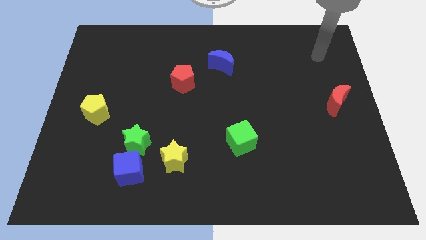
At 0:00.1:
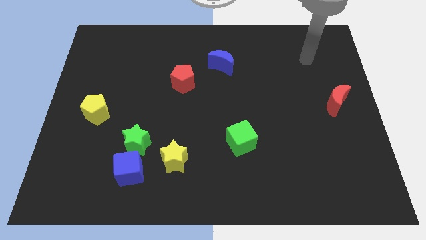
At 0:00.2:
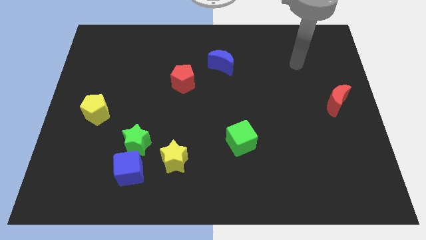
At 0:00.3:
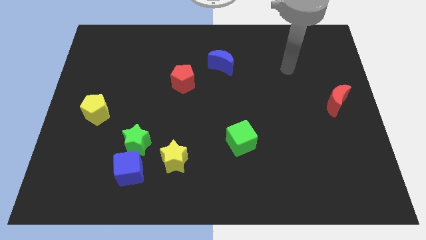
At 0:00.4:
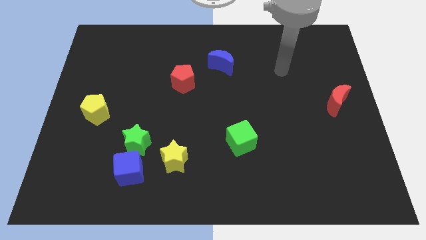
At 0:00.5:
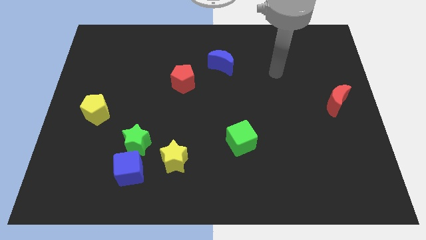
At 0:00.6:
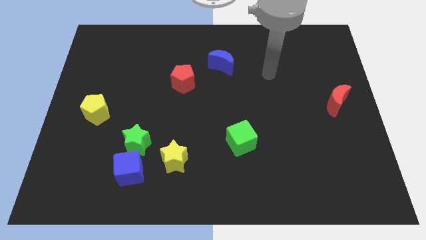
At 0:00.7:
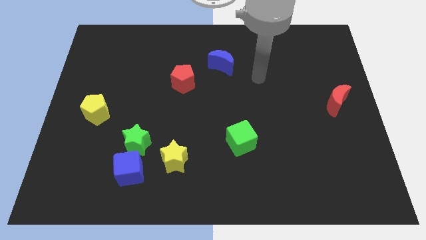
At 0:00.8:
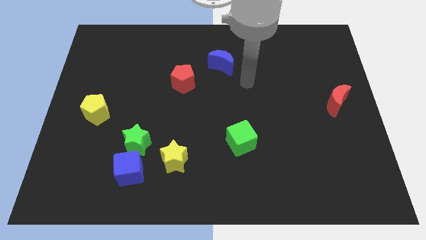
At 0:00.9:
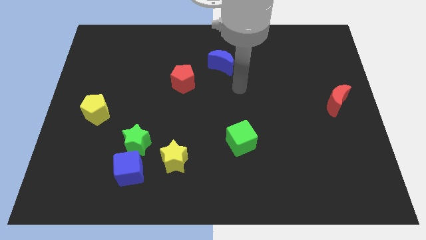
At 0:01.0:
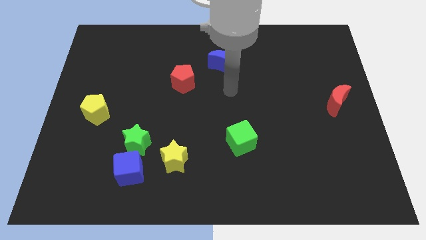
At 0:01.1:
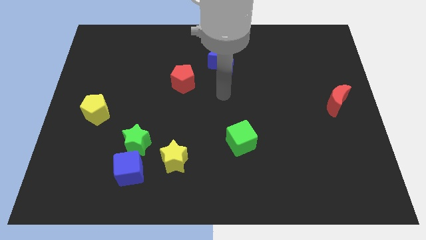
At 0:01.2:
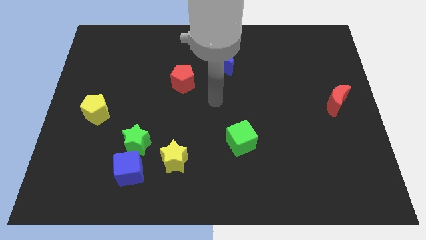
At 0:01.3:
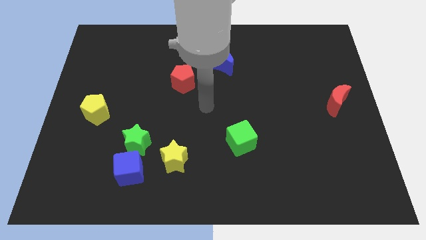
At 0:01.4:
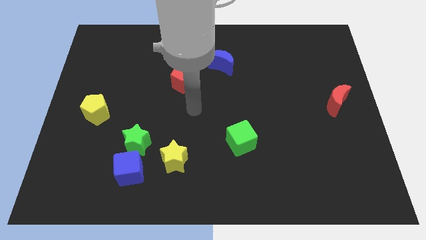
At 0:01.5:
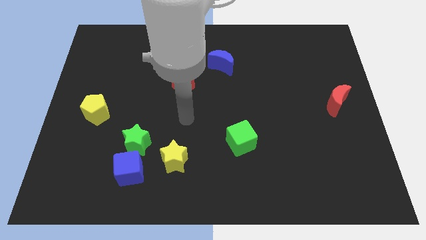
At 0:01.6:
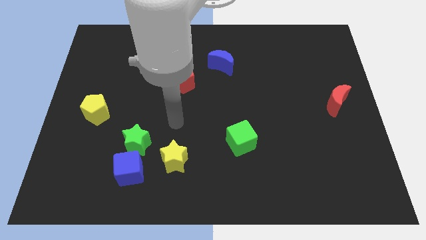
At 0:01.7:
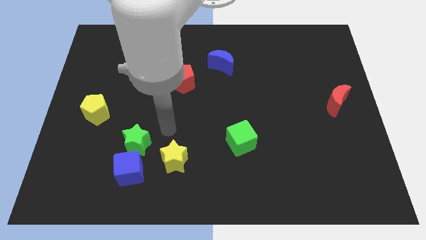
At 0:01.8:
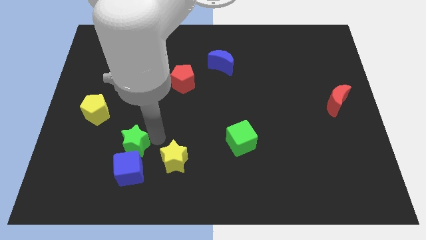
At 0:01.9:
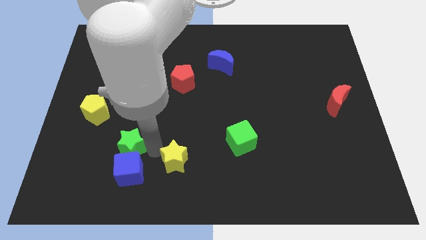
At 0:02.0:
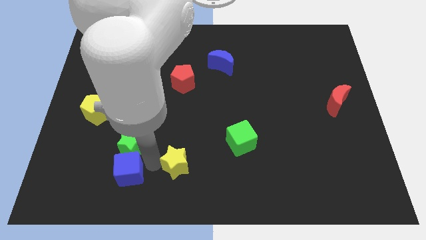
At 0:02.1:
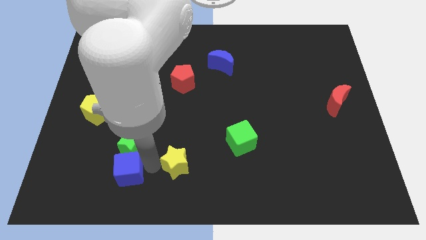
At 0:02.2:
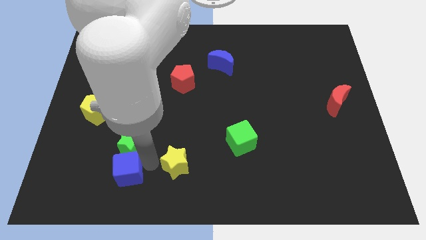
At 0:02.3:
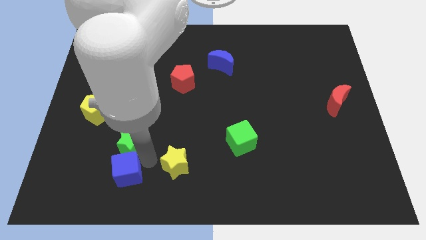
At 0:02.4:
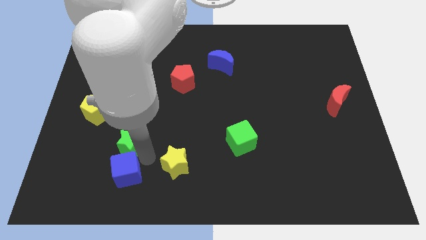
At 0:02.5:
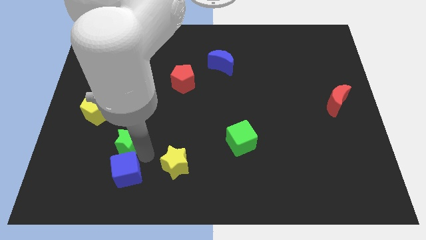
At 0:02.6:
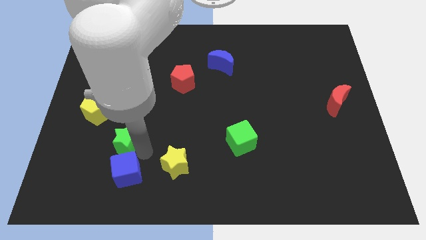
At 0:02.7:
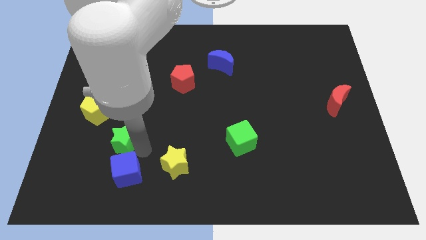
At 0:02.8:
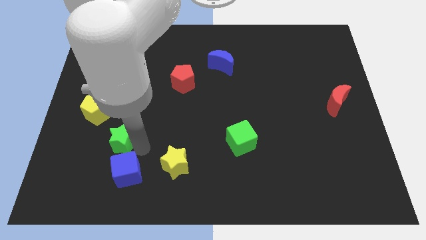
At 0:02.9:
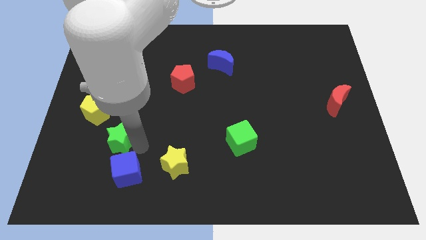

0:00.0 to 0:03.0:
separate the green star from the blue cube and yellow star

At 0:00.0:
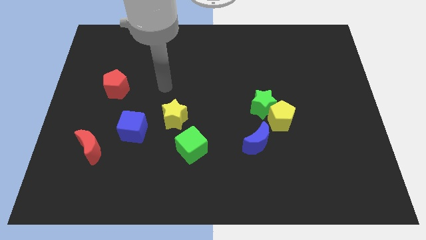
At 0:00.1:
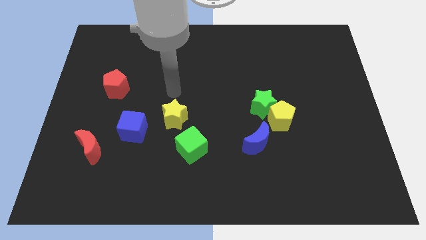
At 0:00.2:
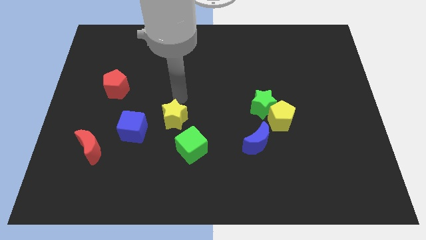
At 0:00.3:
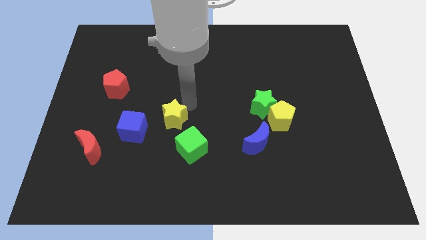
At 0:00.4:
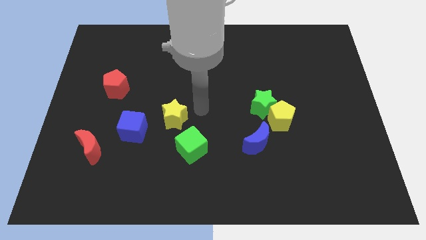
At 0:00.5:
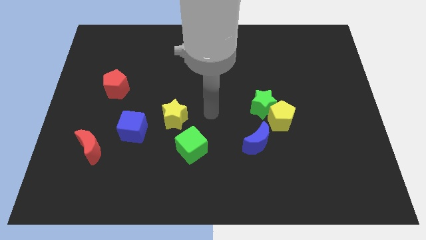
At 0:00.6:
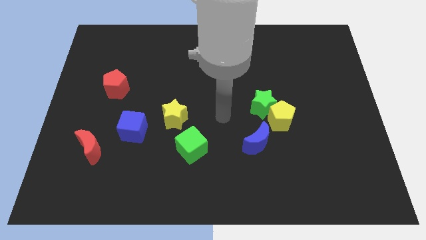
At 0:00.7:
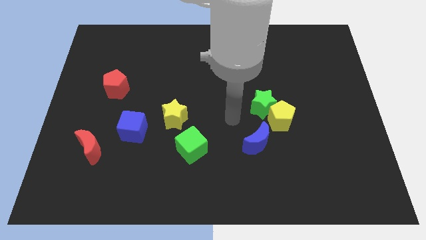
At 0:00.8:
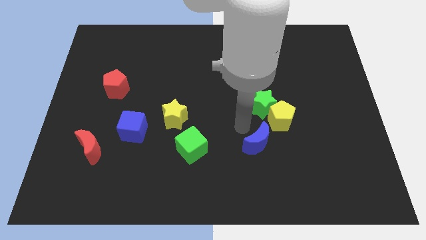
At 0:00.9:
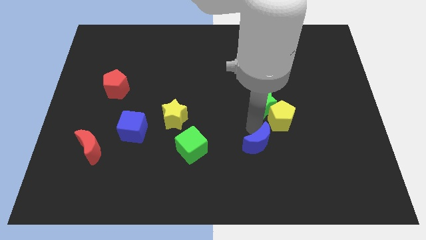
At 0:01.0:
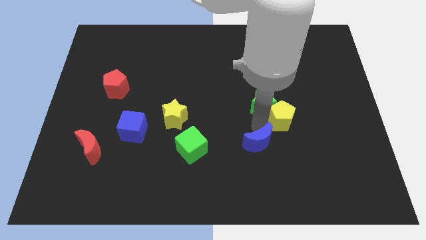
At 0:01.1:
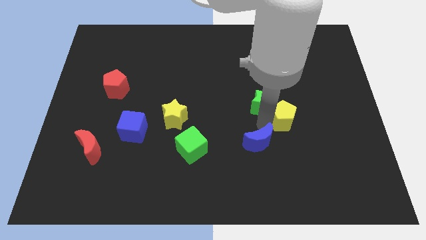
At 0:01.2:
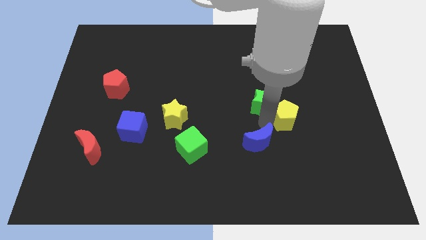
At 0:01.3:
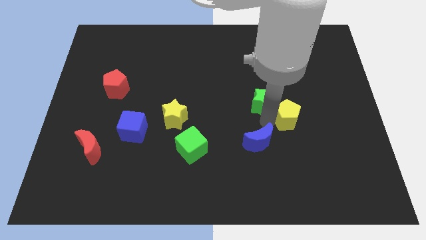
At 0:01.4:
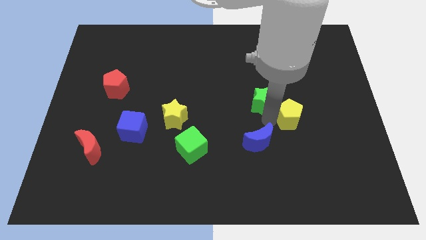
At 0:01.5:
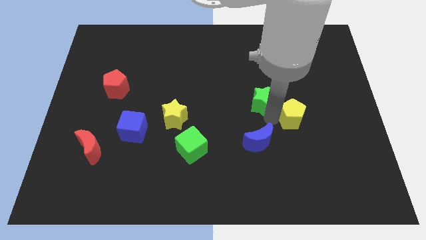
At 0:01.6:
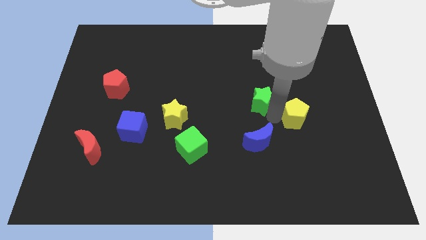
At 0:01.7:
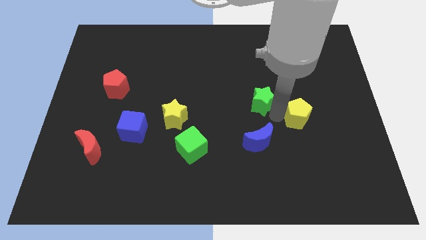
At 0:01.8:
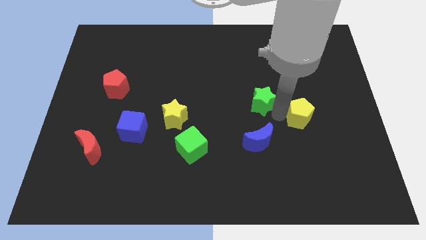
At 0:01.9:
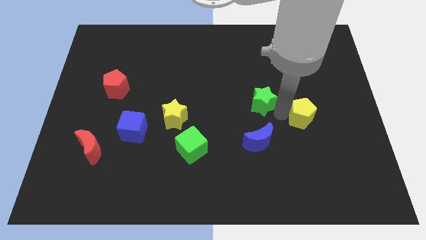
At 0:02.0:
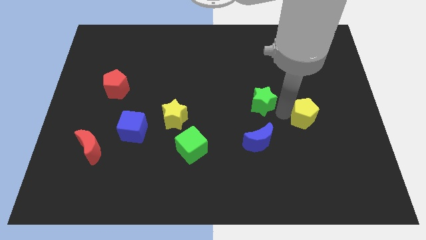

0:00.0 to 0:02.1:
pull the yellow pentagon apart from the green star and blue moon

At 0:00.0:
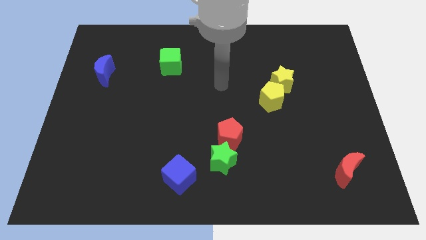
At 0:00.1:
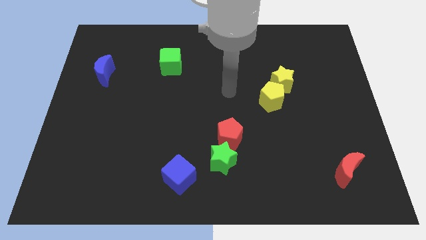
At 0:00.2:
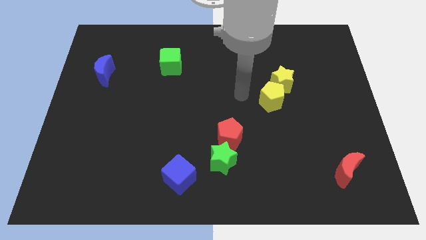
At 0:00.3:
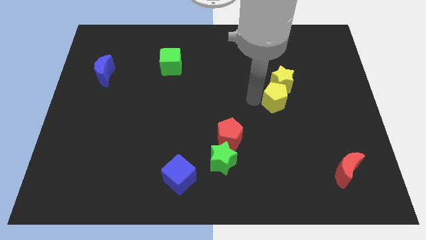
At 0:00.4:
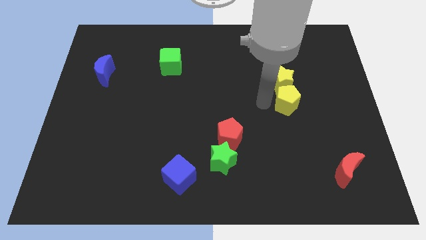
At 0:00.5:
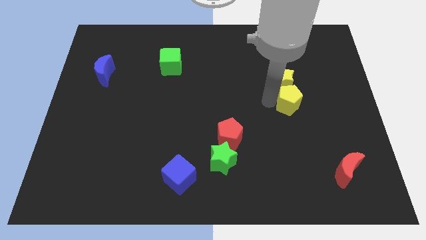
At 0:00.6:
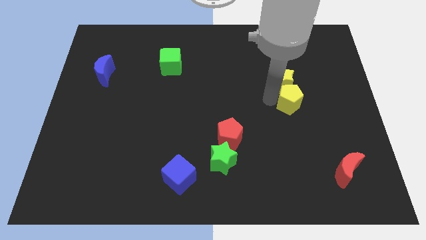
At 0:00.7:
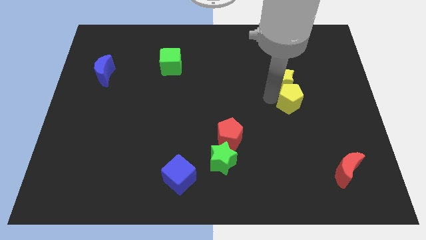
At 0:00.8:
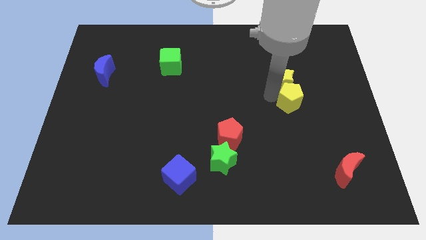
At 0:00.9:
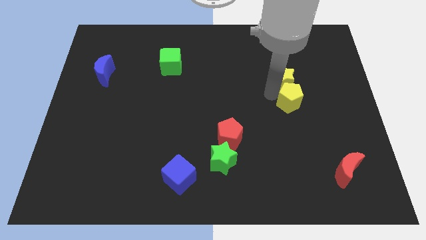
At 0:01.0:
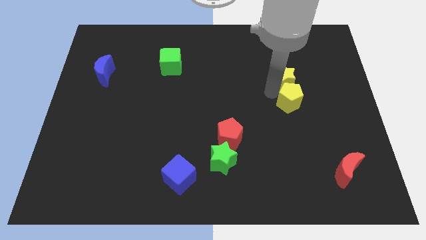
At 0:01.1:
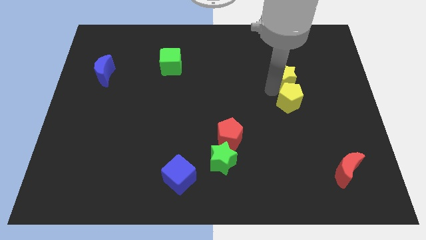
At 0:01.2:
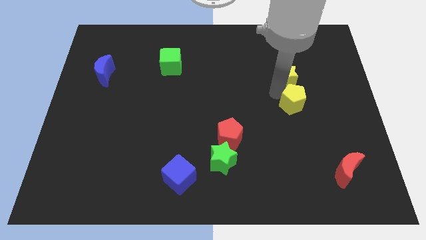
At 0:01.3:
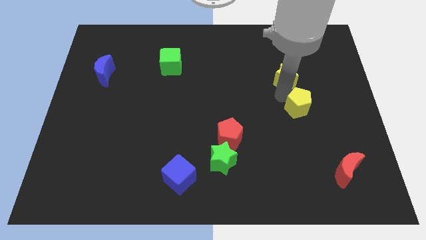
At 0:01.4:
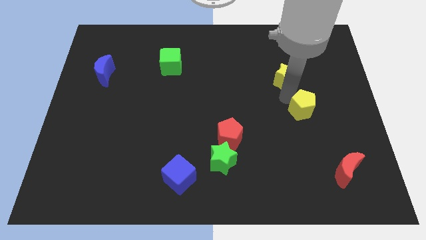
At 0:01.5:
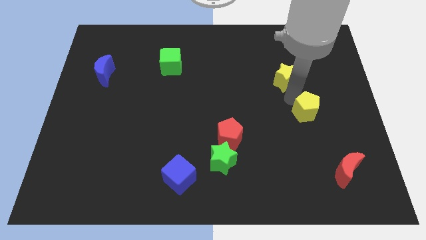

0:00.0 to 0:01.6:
separate the yellow star from the yellow pentagon

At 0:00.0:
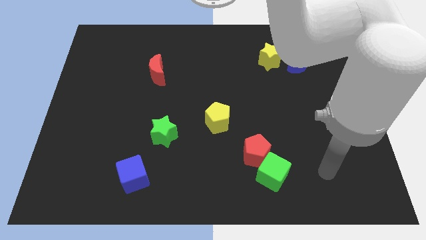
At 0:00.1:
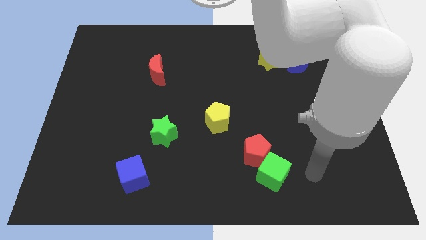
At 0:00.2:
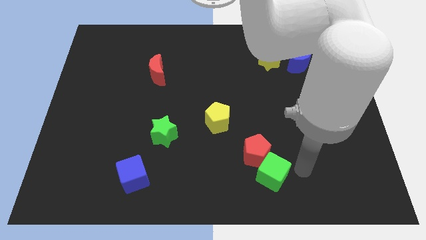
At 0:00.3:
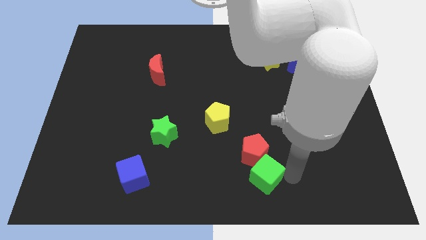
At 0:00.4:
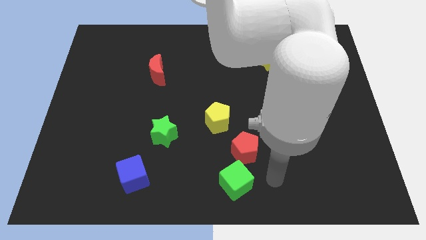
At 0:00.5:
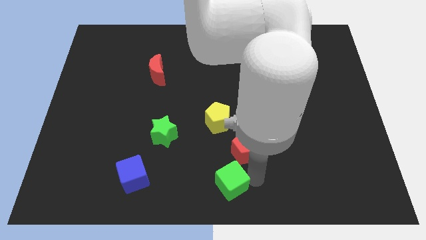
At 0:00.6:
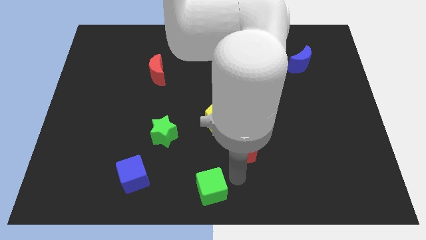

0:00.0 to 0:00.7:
pull the red pentagon apart from the green cube

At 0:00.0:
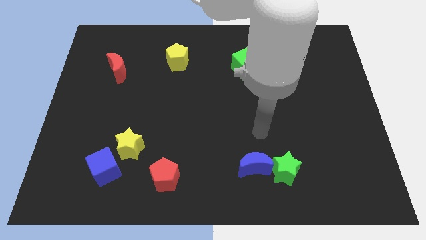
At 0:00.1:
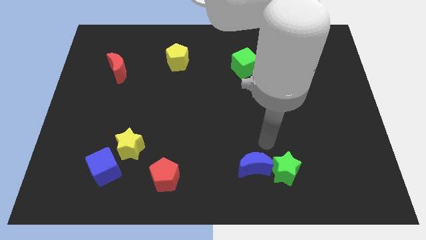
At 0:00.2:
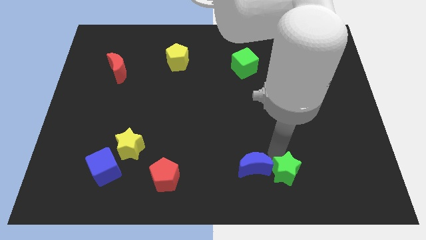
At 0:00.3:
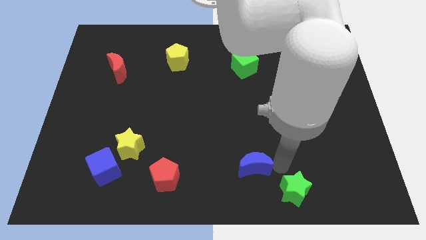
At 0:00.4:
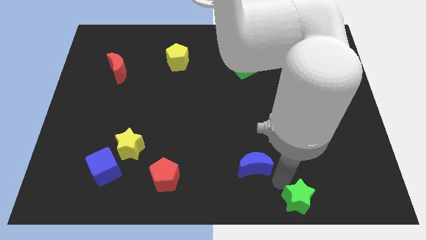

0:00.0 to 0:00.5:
move the blue moon away from the green star

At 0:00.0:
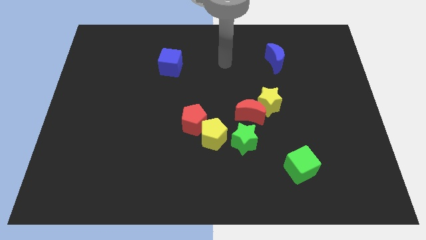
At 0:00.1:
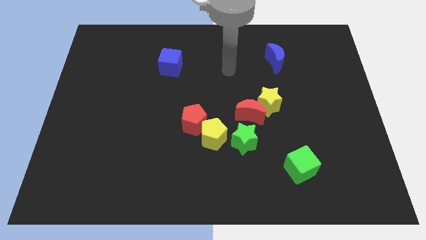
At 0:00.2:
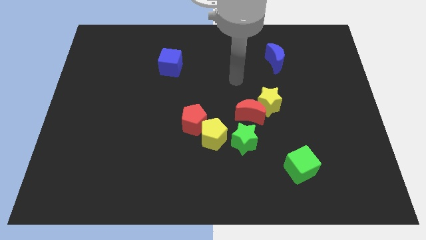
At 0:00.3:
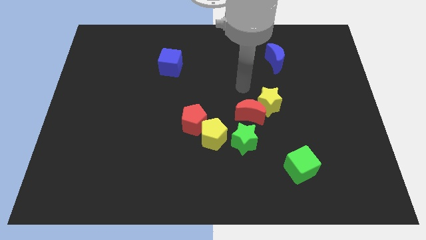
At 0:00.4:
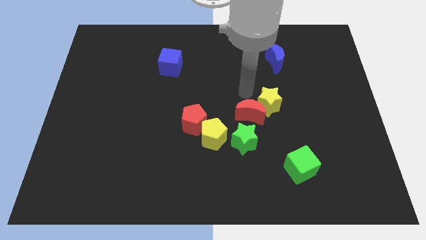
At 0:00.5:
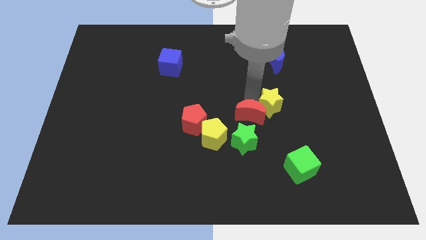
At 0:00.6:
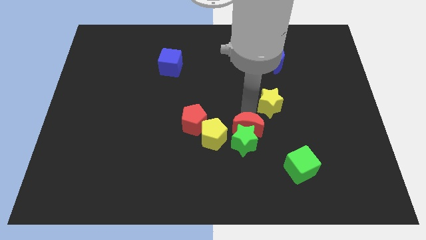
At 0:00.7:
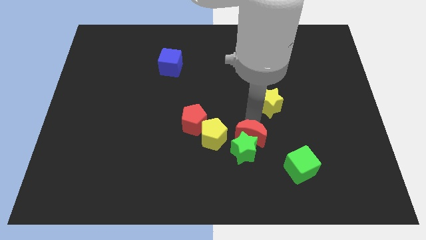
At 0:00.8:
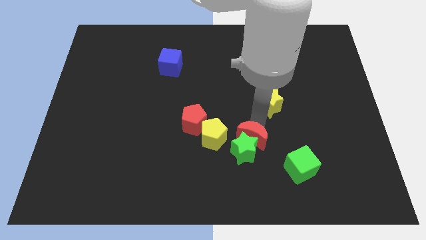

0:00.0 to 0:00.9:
move the yellow star away from the red moon

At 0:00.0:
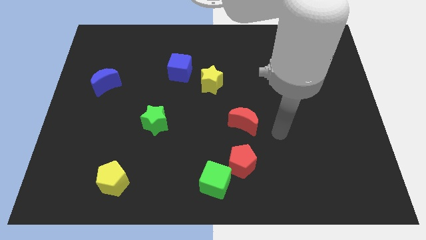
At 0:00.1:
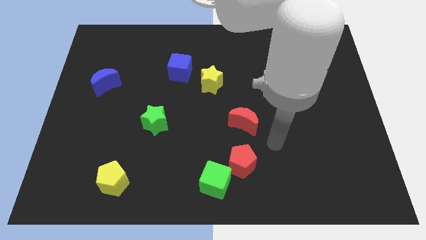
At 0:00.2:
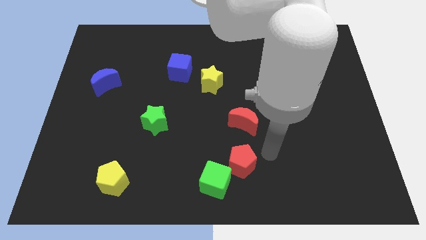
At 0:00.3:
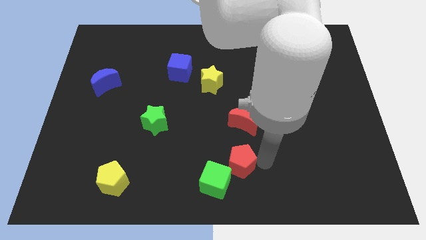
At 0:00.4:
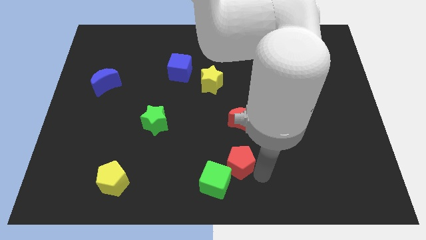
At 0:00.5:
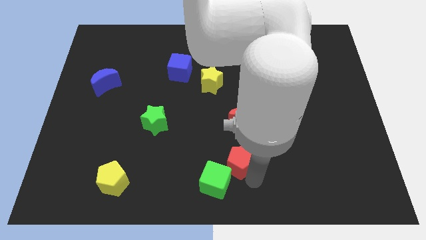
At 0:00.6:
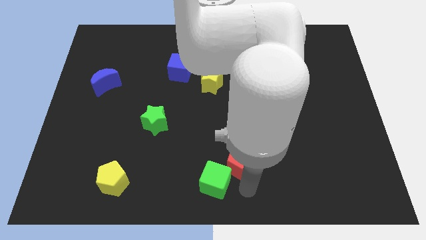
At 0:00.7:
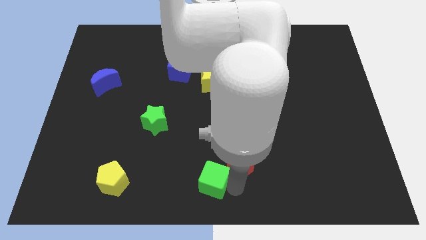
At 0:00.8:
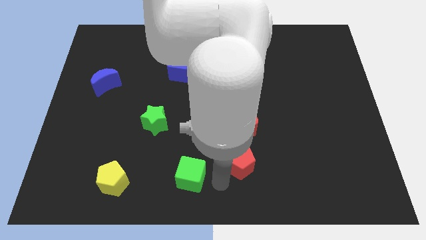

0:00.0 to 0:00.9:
separate the red pentagon from the green cube
